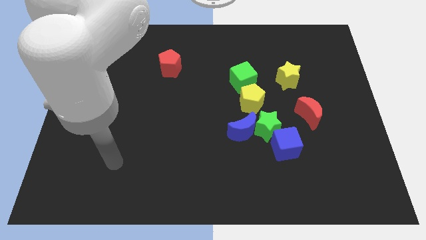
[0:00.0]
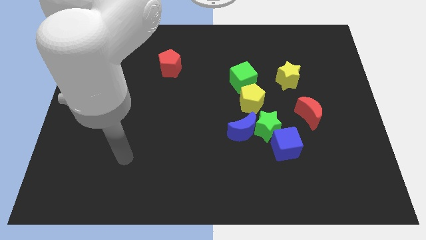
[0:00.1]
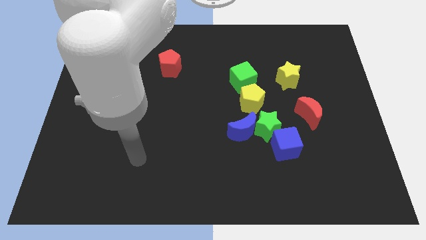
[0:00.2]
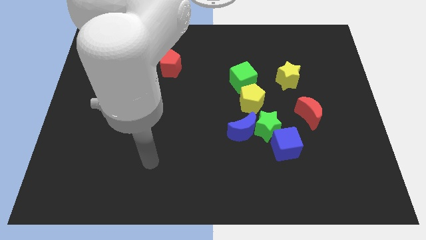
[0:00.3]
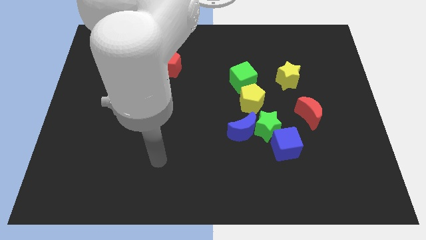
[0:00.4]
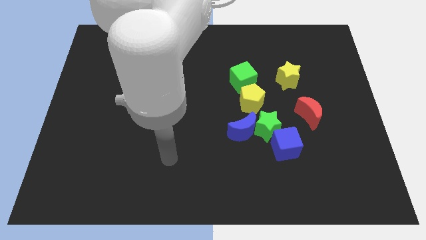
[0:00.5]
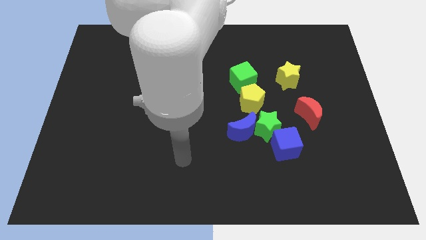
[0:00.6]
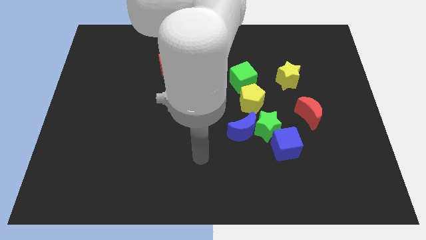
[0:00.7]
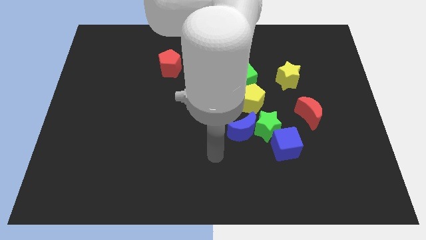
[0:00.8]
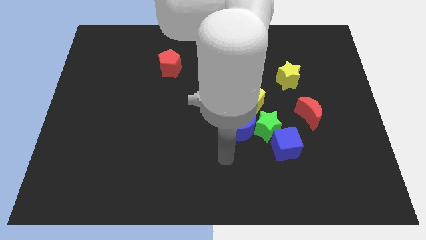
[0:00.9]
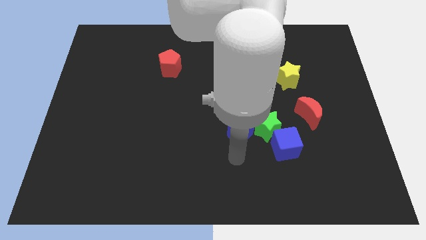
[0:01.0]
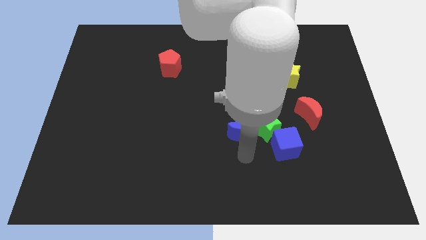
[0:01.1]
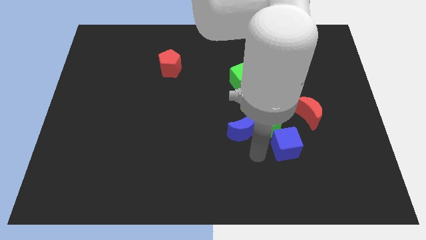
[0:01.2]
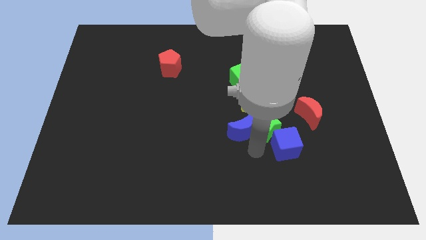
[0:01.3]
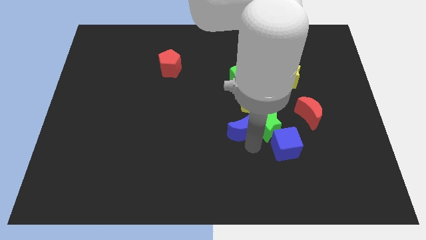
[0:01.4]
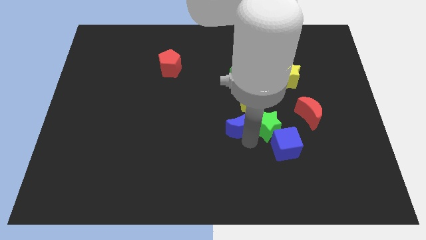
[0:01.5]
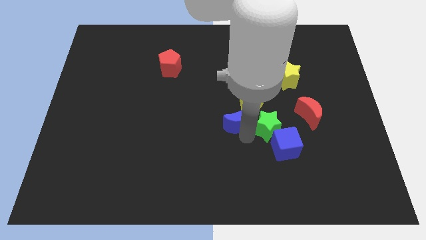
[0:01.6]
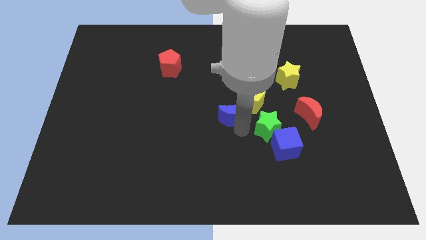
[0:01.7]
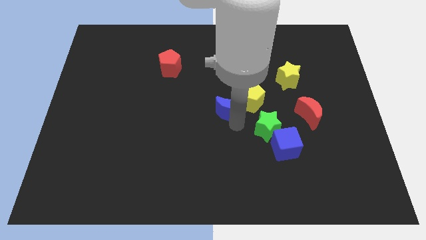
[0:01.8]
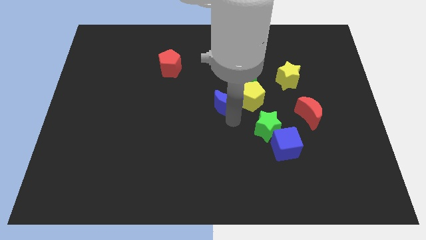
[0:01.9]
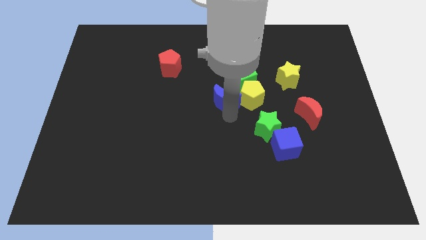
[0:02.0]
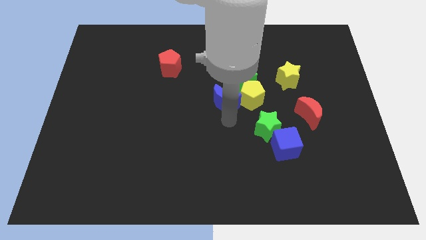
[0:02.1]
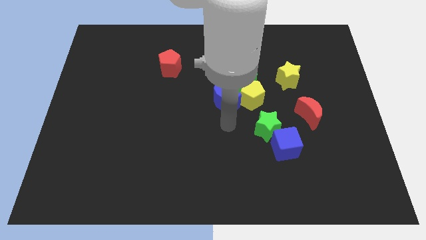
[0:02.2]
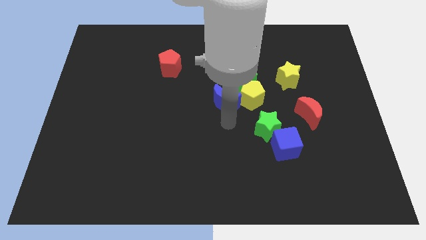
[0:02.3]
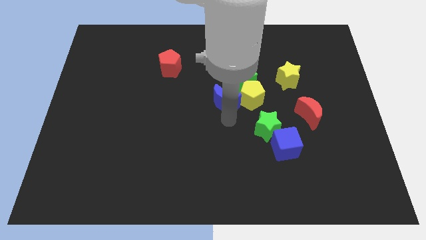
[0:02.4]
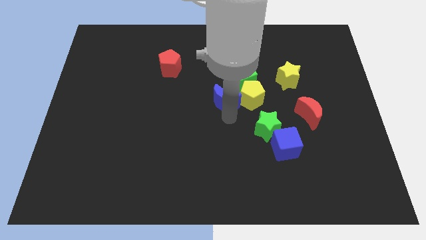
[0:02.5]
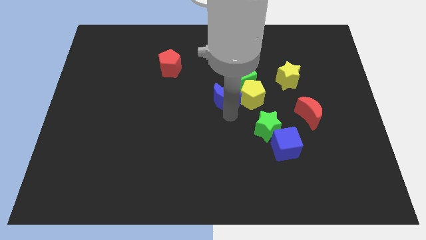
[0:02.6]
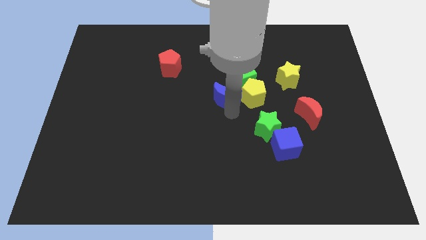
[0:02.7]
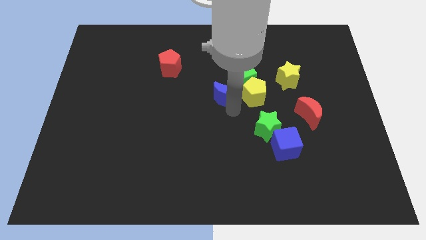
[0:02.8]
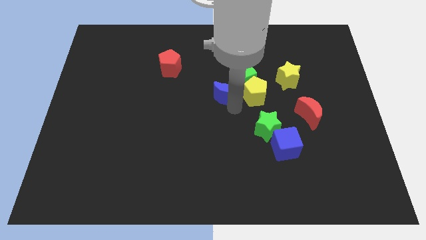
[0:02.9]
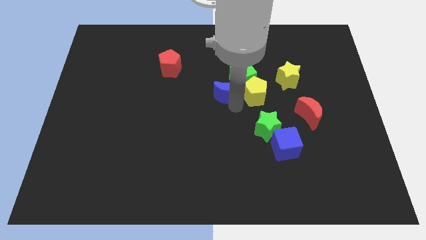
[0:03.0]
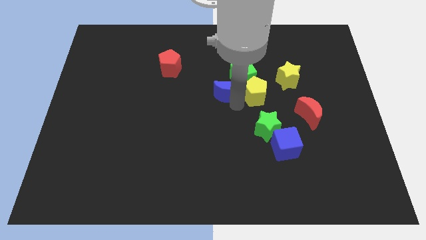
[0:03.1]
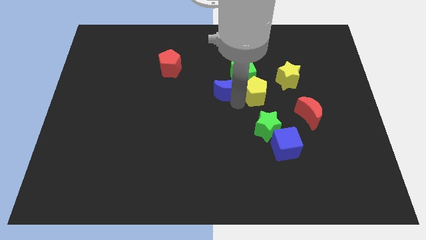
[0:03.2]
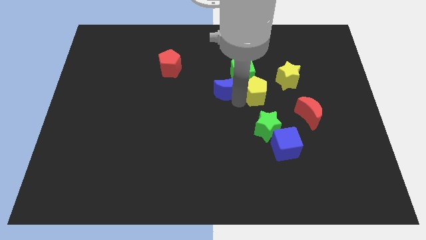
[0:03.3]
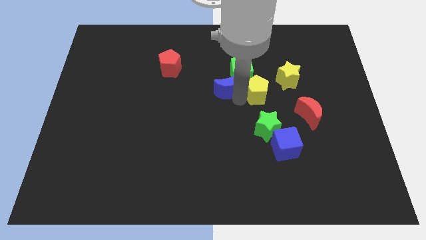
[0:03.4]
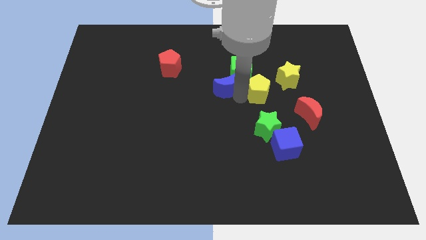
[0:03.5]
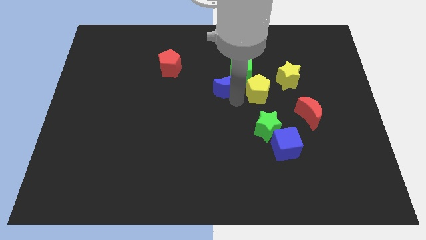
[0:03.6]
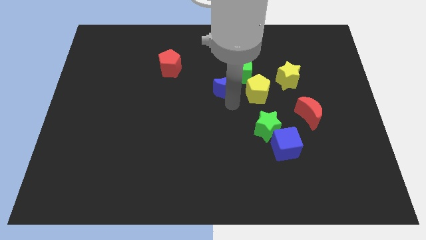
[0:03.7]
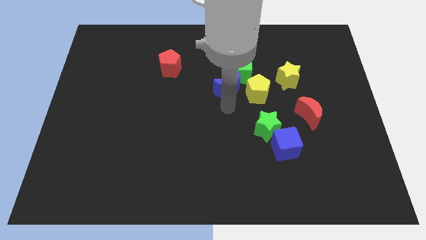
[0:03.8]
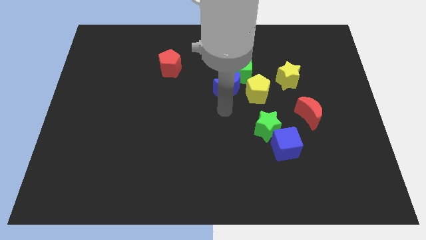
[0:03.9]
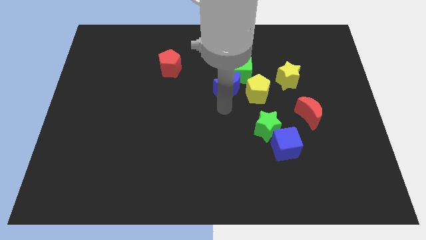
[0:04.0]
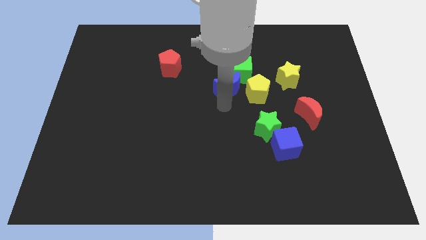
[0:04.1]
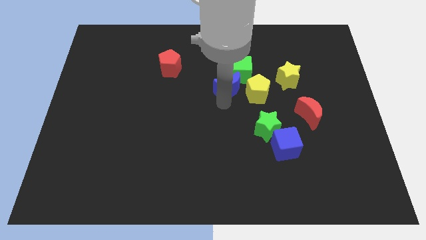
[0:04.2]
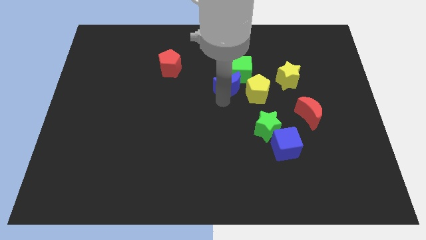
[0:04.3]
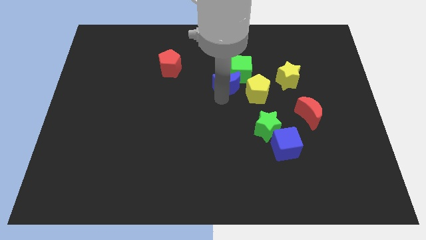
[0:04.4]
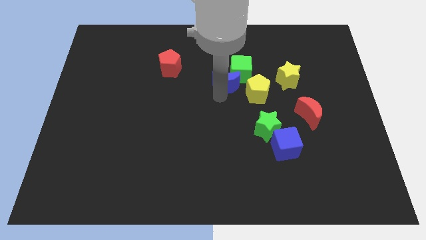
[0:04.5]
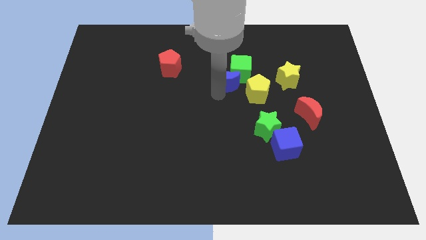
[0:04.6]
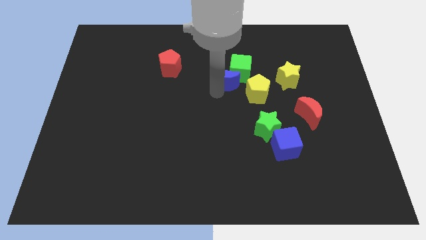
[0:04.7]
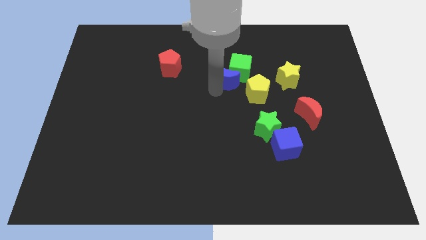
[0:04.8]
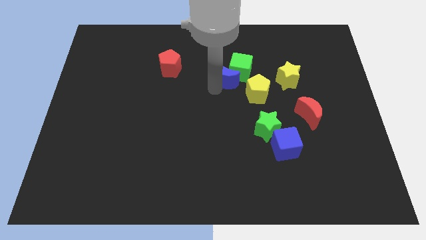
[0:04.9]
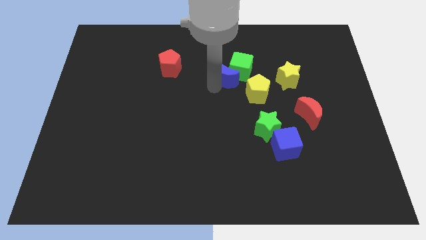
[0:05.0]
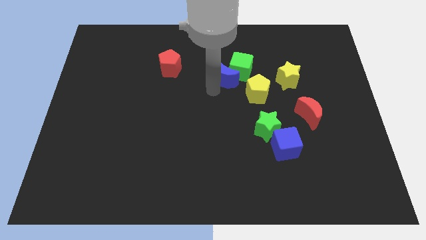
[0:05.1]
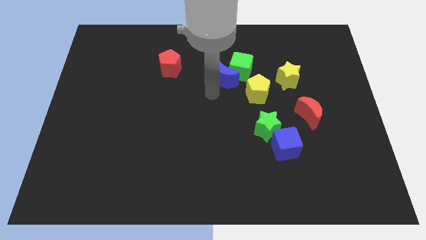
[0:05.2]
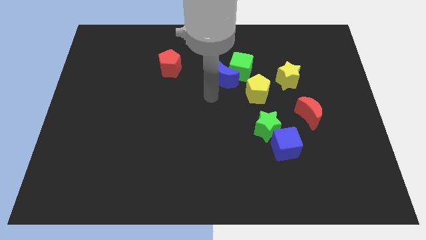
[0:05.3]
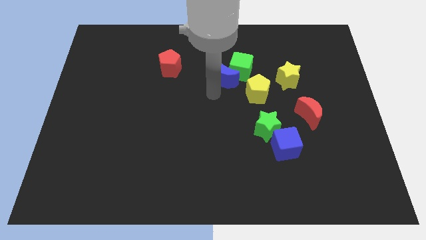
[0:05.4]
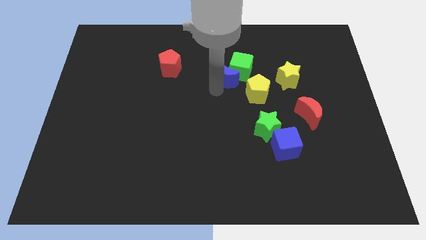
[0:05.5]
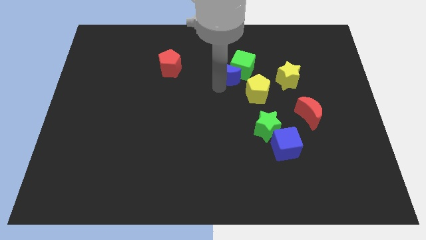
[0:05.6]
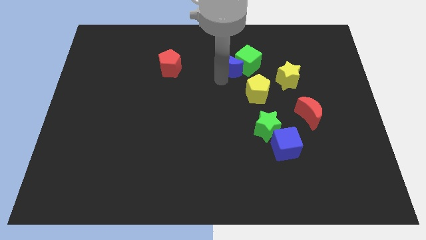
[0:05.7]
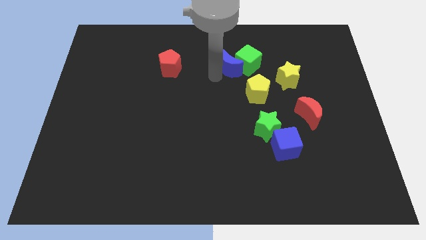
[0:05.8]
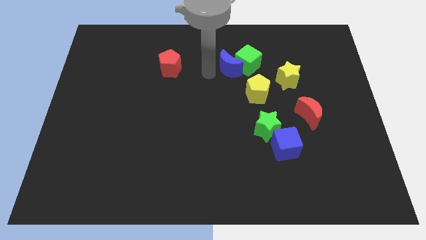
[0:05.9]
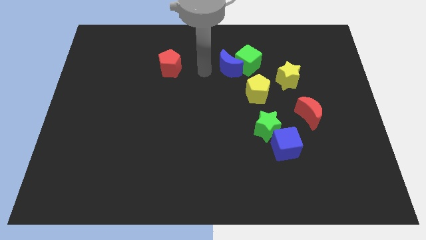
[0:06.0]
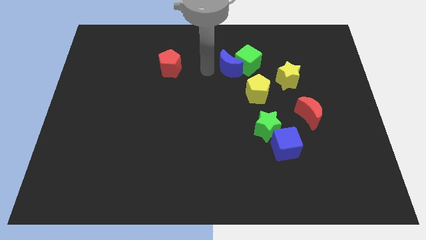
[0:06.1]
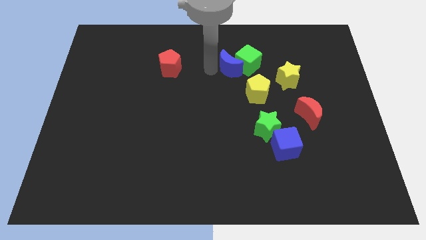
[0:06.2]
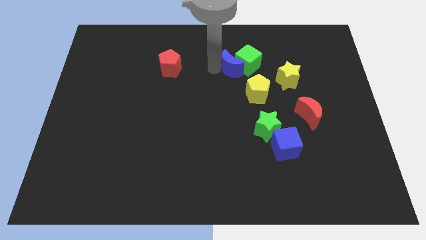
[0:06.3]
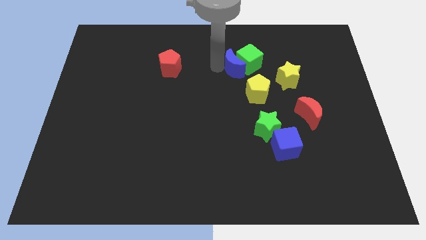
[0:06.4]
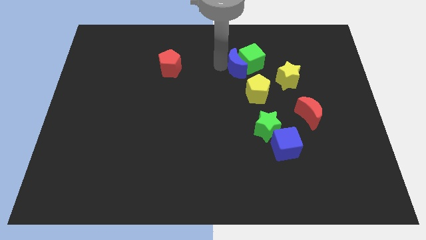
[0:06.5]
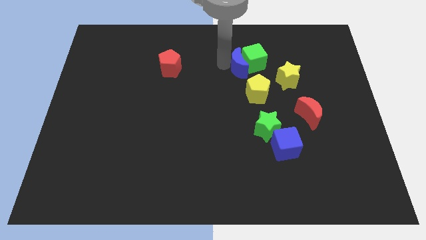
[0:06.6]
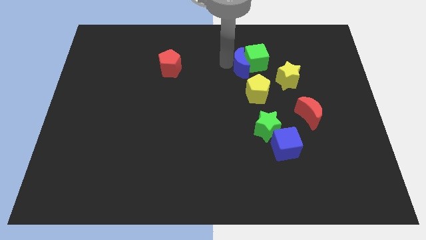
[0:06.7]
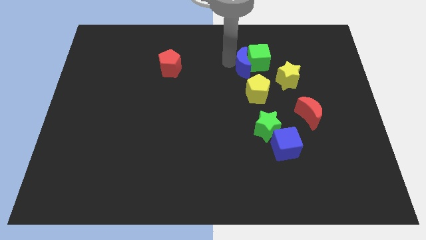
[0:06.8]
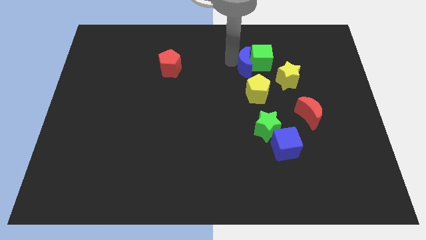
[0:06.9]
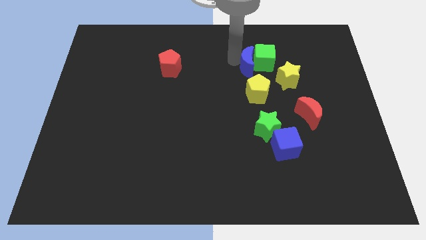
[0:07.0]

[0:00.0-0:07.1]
slide the blue moon to the top left side of the yellow star
